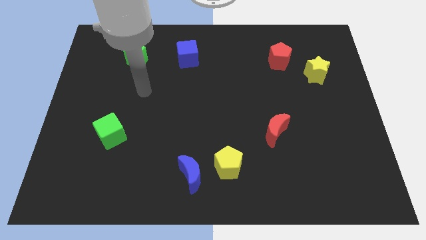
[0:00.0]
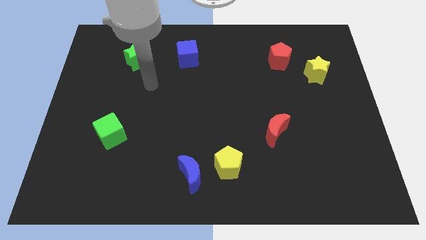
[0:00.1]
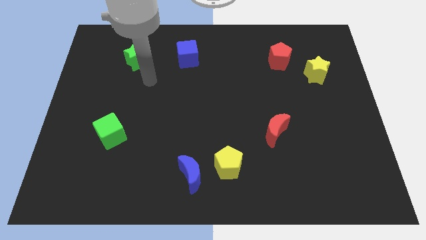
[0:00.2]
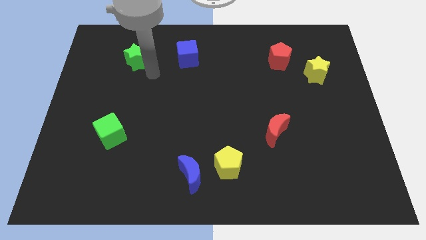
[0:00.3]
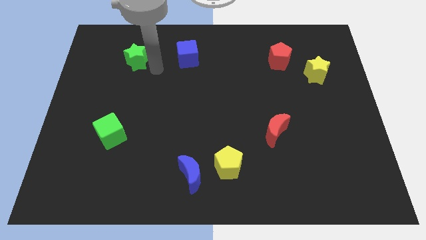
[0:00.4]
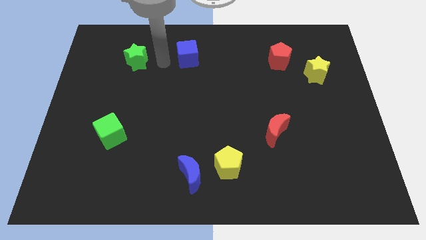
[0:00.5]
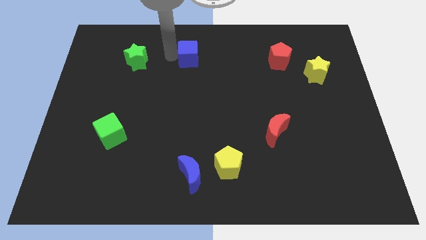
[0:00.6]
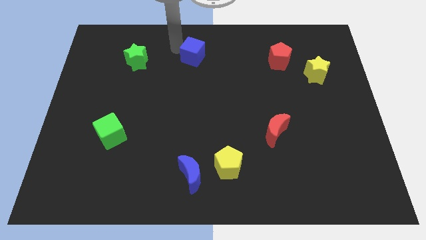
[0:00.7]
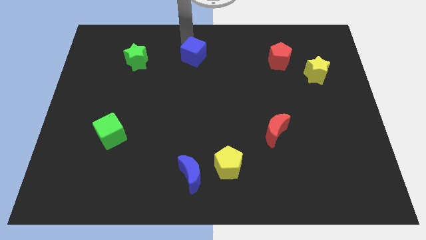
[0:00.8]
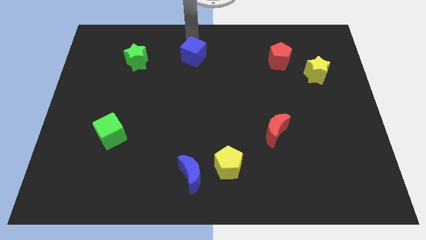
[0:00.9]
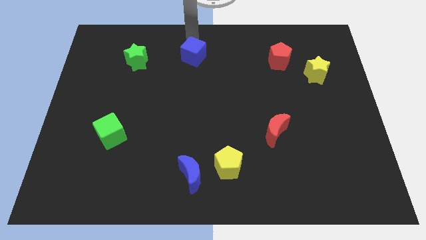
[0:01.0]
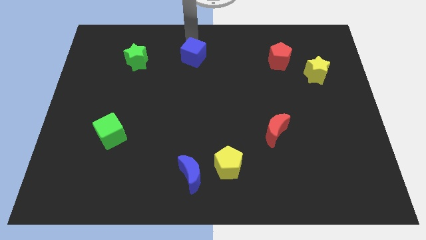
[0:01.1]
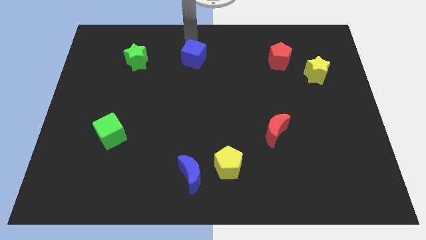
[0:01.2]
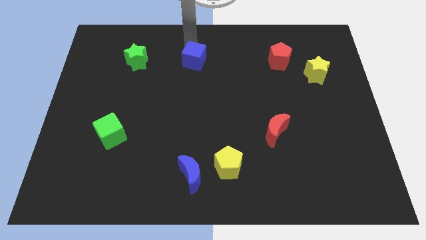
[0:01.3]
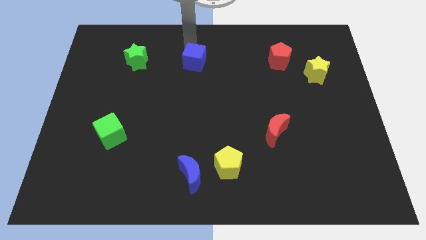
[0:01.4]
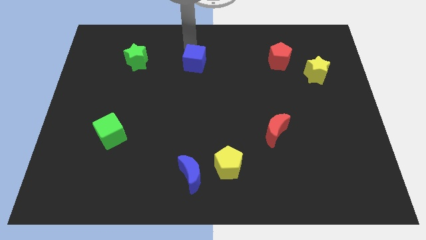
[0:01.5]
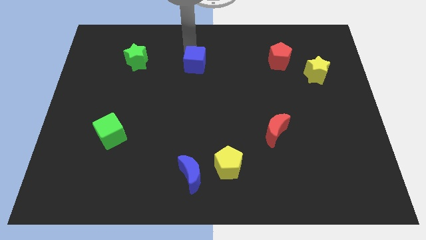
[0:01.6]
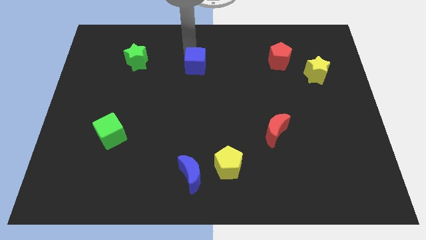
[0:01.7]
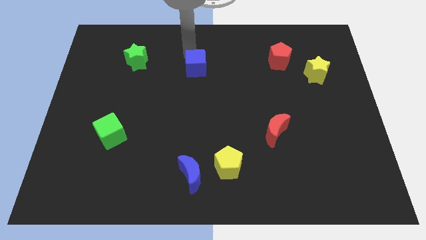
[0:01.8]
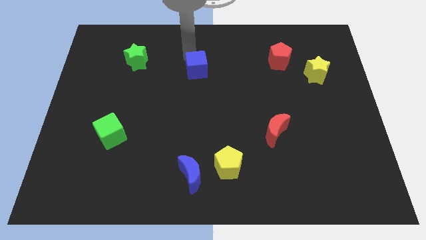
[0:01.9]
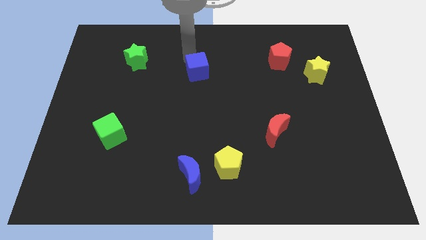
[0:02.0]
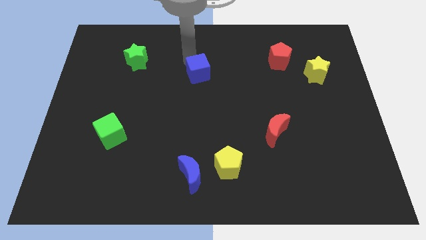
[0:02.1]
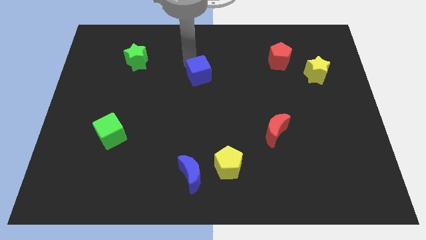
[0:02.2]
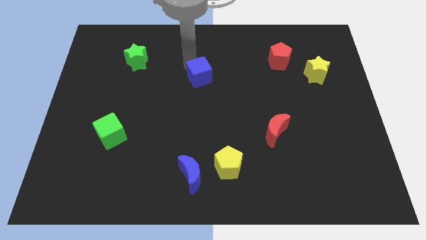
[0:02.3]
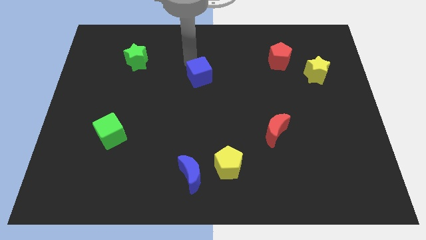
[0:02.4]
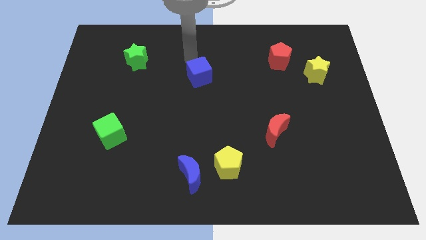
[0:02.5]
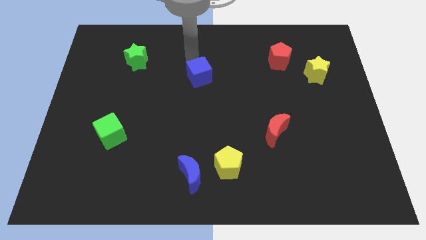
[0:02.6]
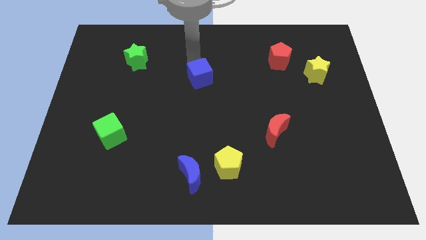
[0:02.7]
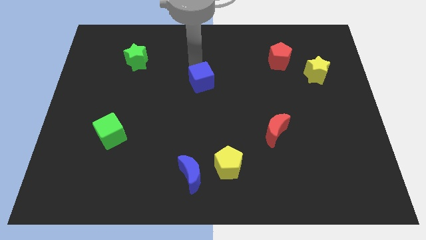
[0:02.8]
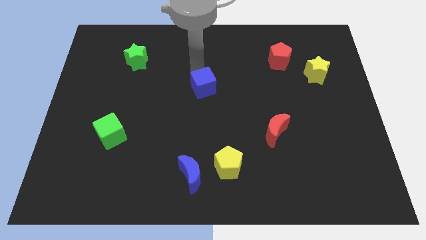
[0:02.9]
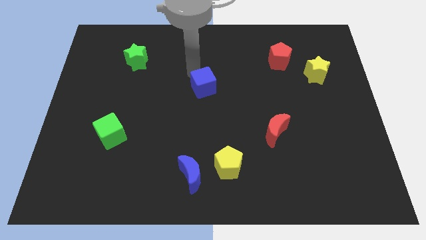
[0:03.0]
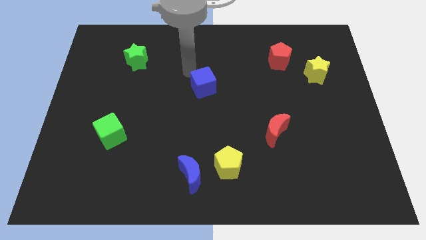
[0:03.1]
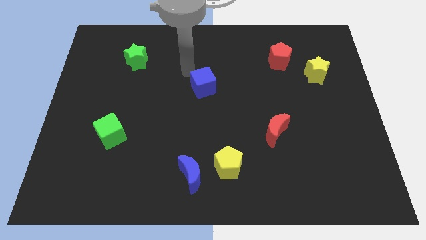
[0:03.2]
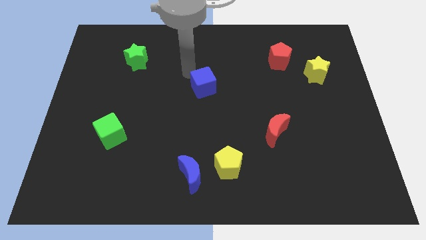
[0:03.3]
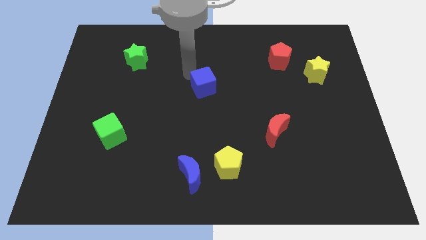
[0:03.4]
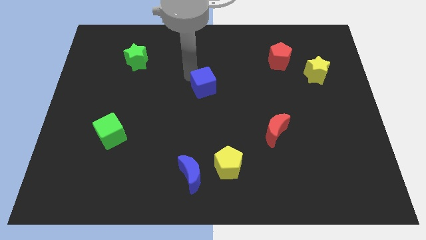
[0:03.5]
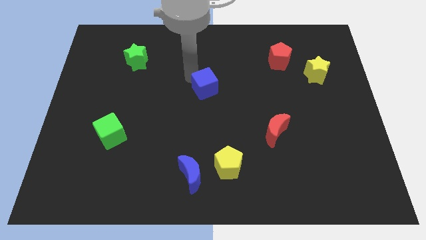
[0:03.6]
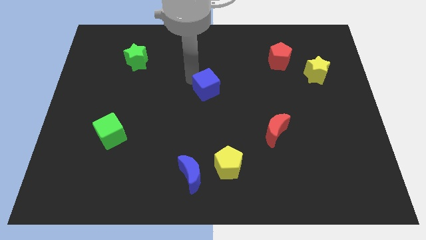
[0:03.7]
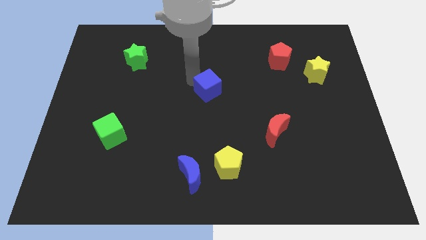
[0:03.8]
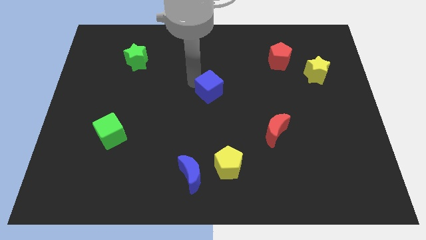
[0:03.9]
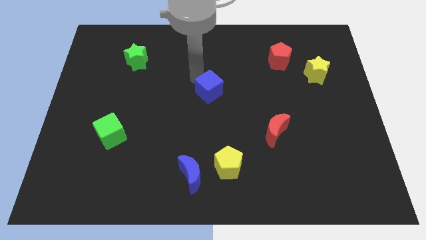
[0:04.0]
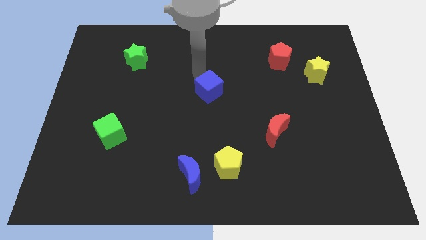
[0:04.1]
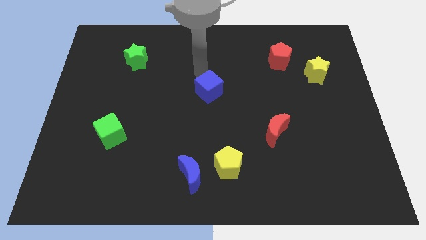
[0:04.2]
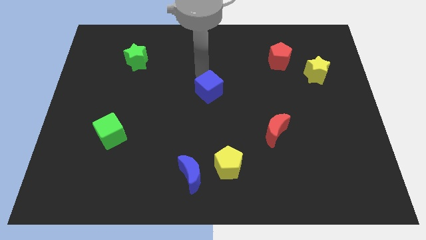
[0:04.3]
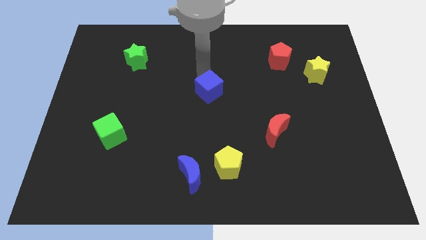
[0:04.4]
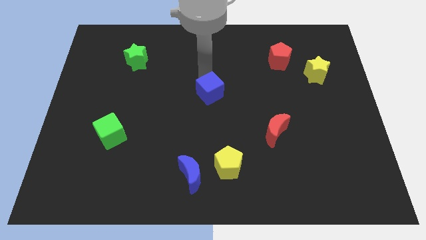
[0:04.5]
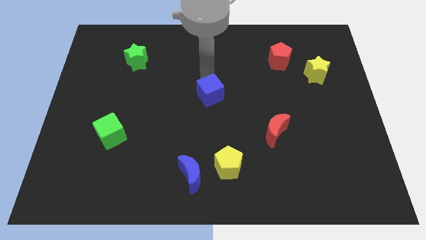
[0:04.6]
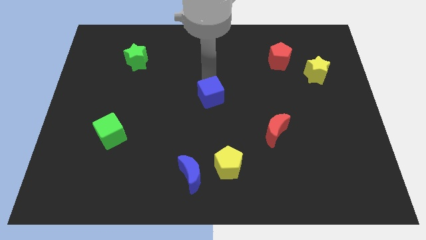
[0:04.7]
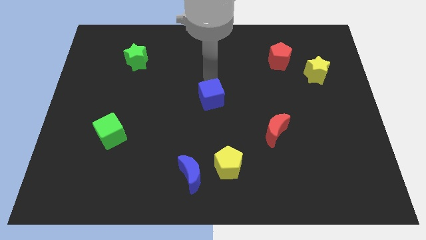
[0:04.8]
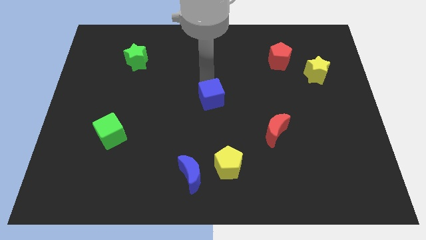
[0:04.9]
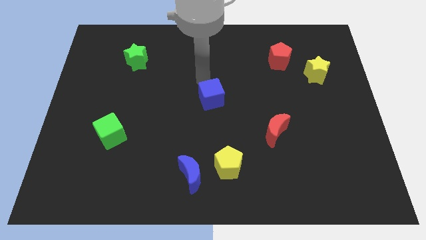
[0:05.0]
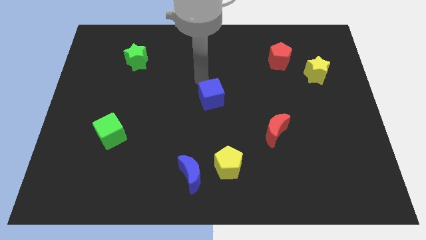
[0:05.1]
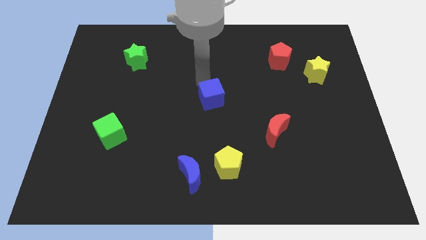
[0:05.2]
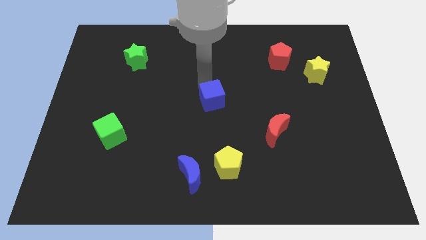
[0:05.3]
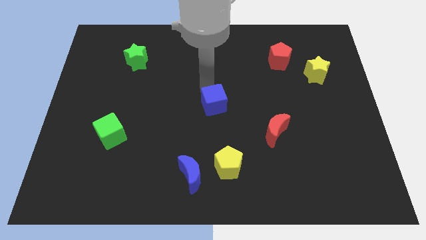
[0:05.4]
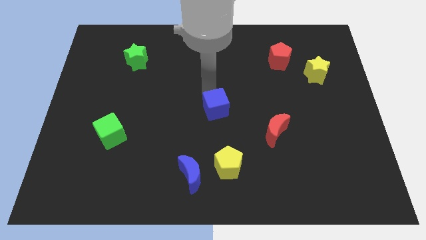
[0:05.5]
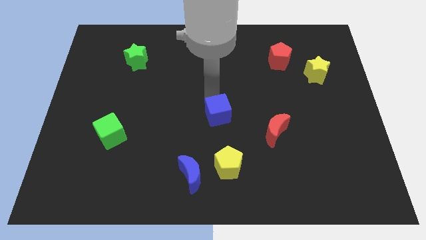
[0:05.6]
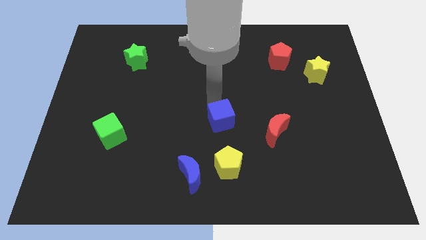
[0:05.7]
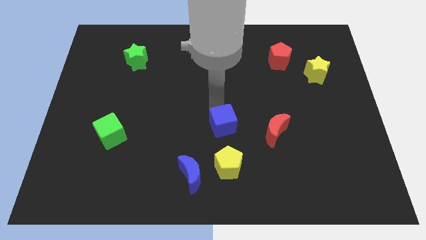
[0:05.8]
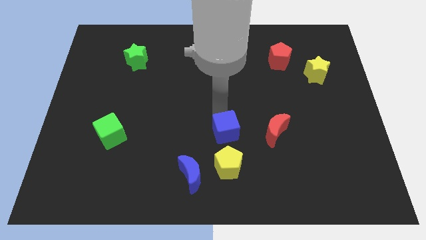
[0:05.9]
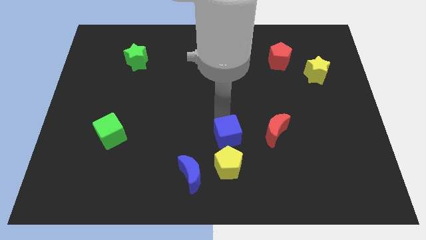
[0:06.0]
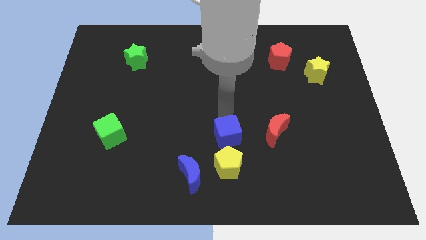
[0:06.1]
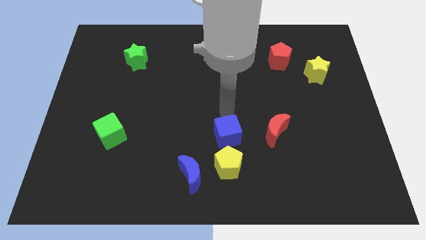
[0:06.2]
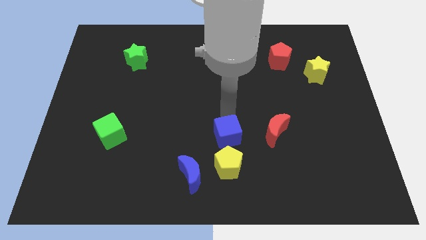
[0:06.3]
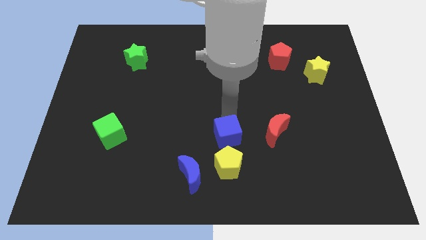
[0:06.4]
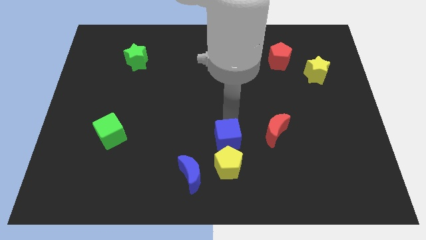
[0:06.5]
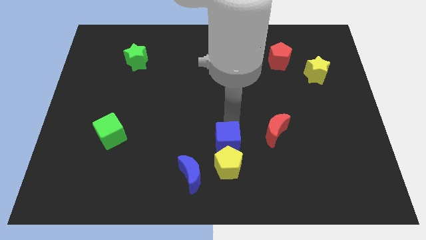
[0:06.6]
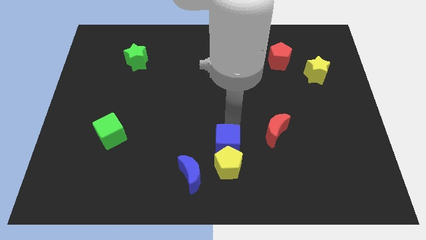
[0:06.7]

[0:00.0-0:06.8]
push the blue cube to the yellow pentagon

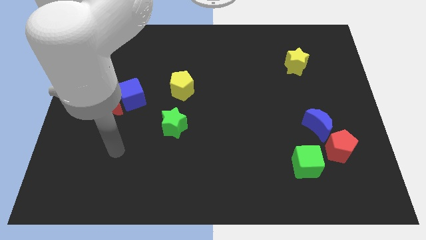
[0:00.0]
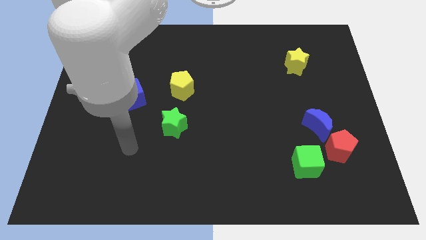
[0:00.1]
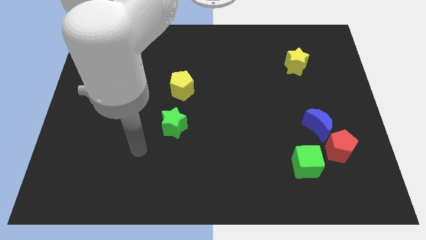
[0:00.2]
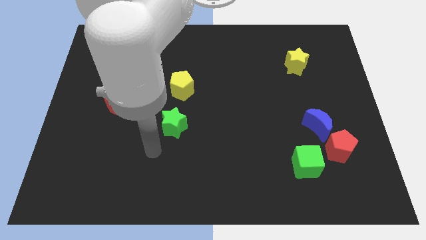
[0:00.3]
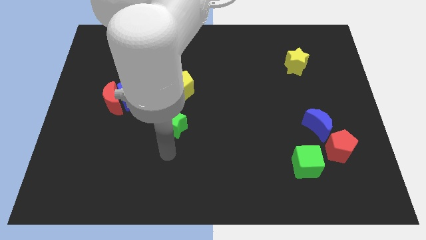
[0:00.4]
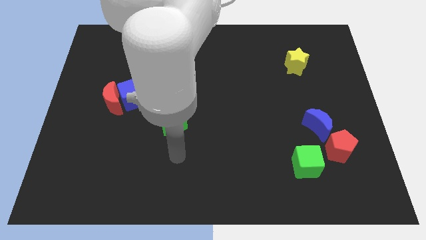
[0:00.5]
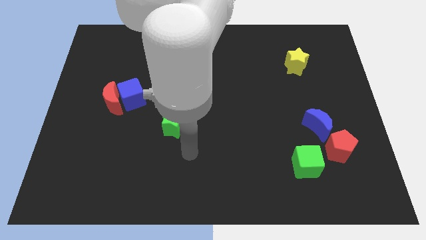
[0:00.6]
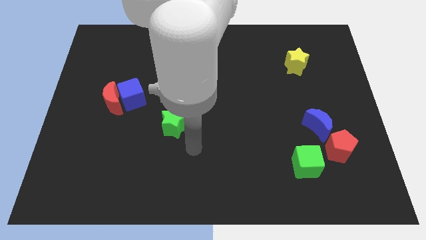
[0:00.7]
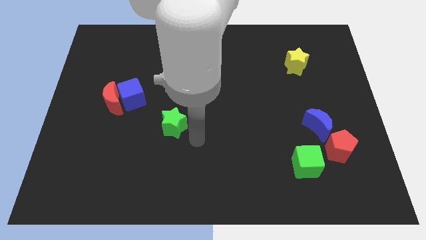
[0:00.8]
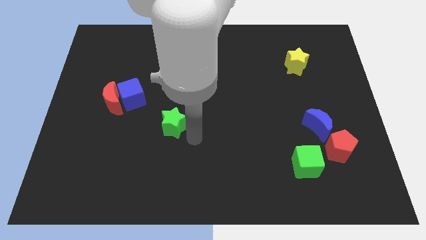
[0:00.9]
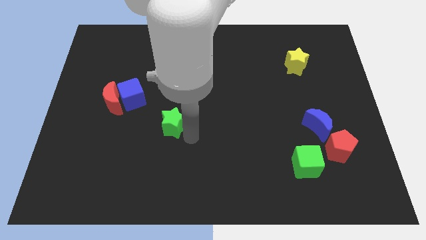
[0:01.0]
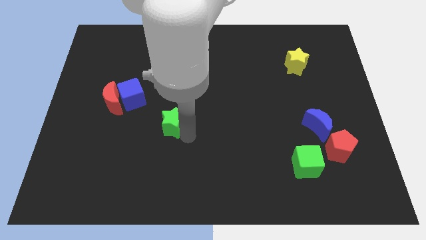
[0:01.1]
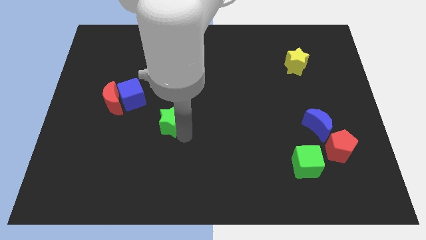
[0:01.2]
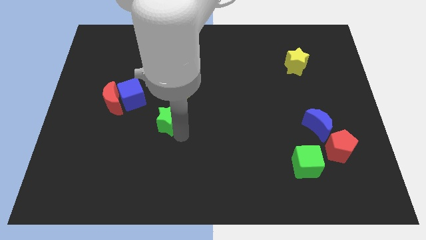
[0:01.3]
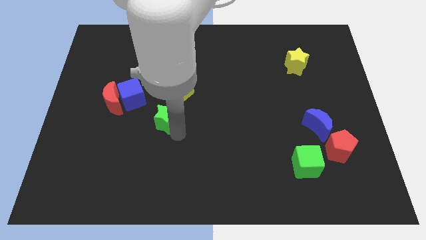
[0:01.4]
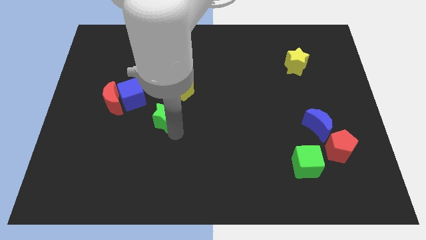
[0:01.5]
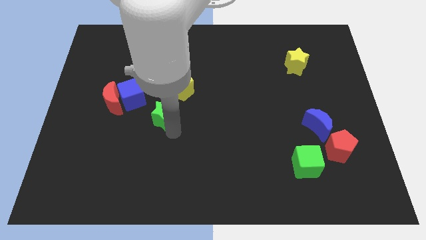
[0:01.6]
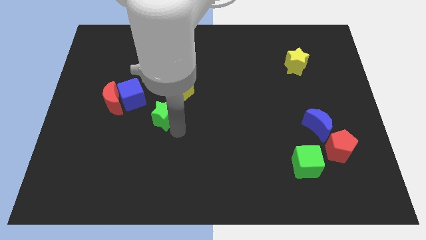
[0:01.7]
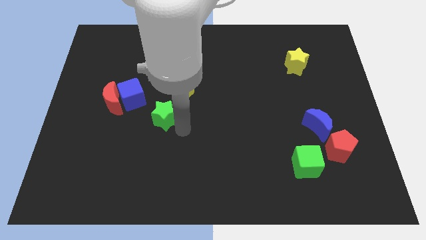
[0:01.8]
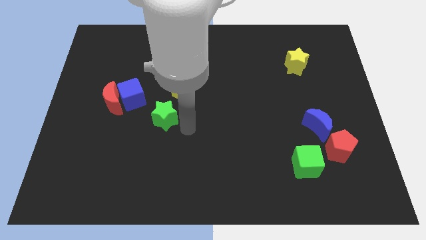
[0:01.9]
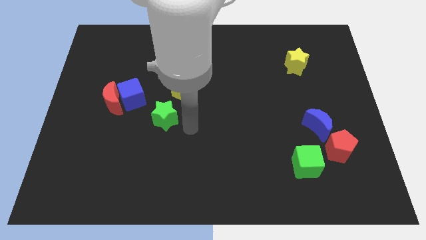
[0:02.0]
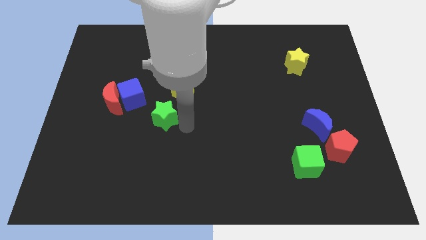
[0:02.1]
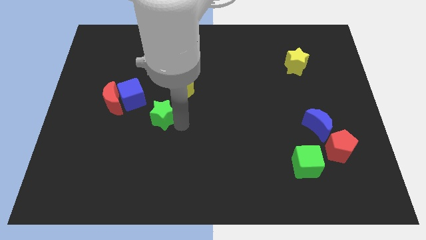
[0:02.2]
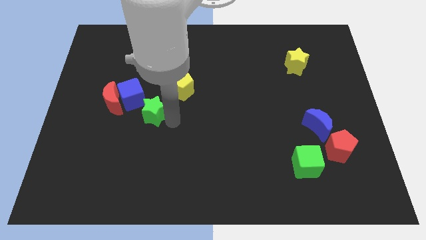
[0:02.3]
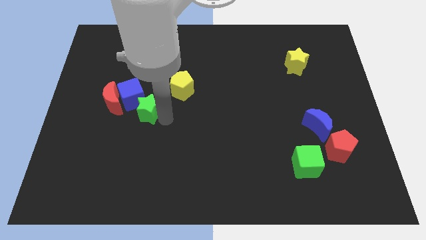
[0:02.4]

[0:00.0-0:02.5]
put the green star to the blue cube
